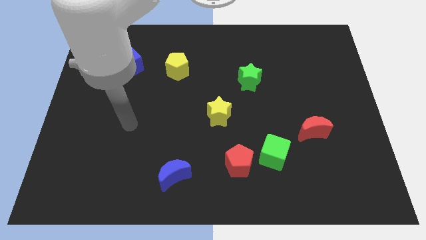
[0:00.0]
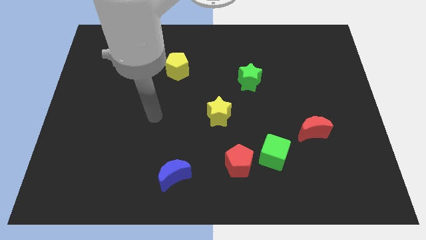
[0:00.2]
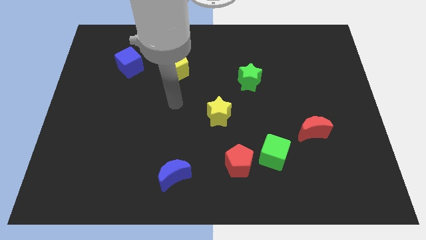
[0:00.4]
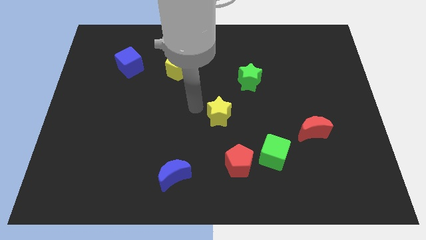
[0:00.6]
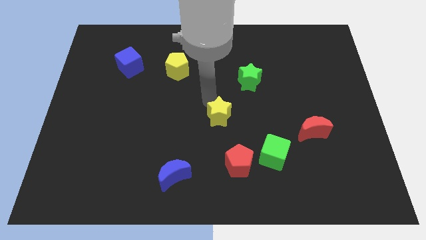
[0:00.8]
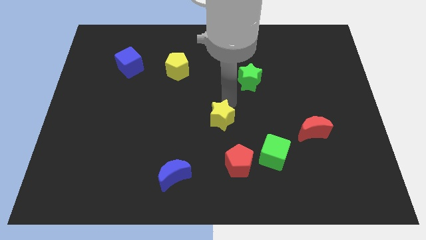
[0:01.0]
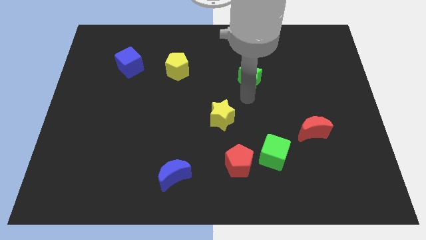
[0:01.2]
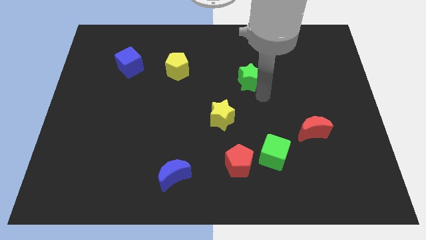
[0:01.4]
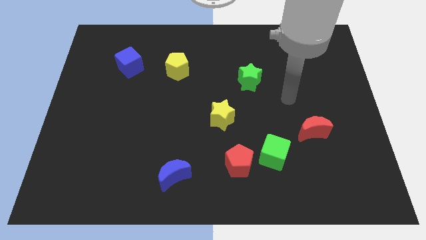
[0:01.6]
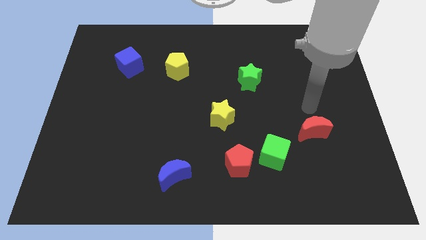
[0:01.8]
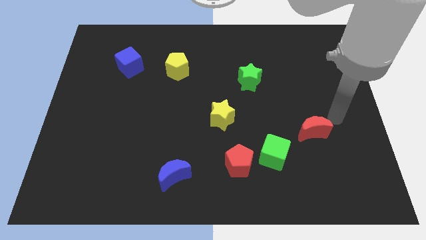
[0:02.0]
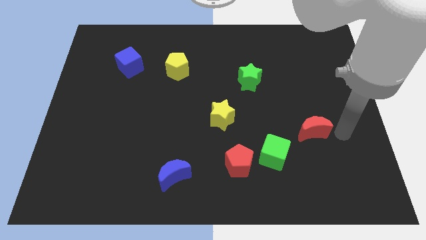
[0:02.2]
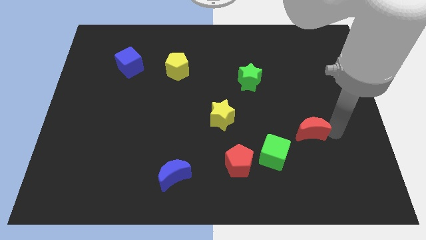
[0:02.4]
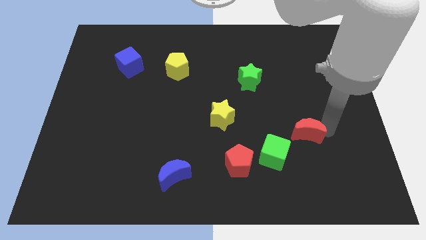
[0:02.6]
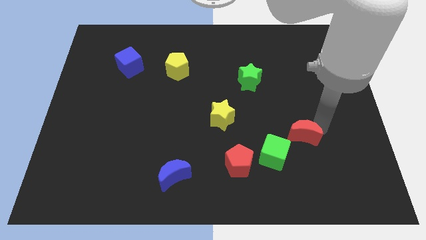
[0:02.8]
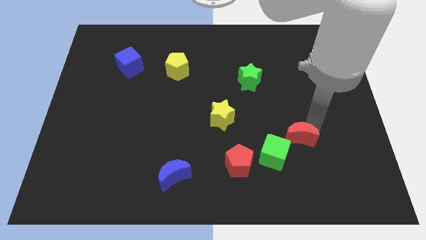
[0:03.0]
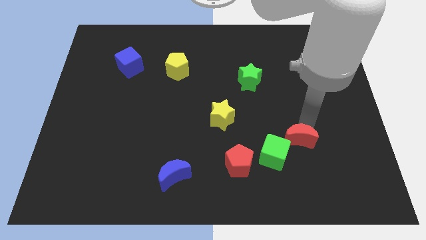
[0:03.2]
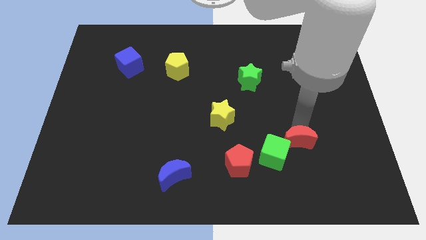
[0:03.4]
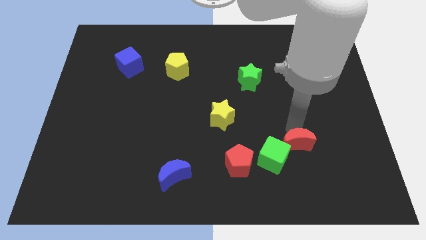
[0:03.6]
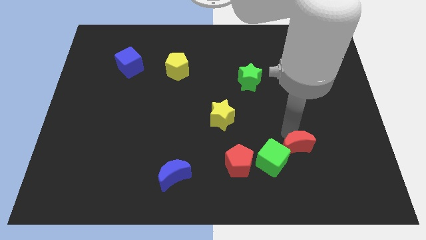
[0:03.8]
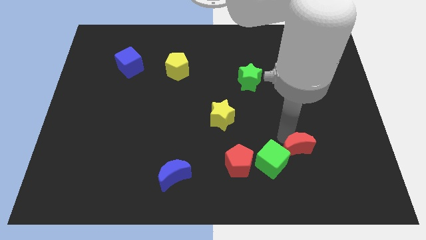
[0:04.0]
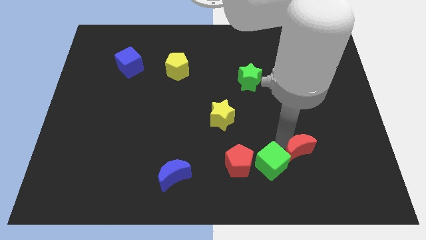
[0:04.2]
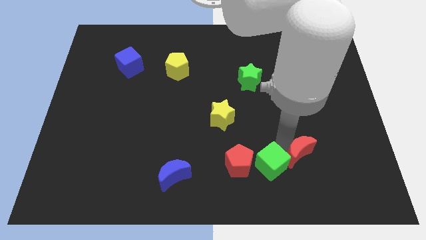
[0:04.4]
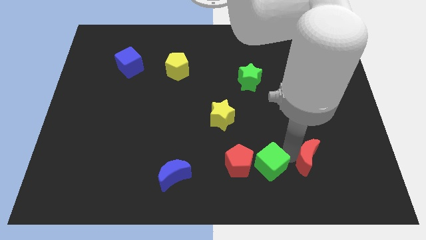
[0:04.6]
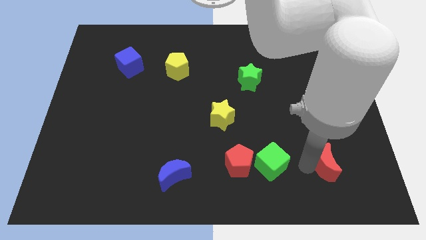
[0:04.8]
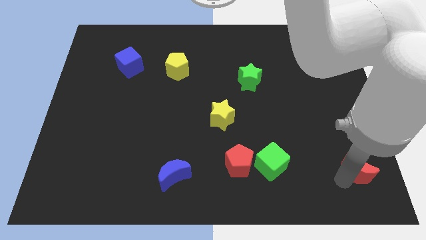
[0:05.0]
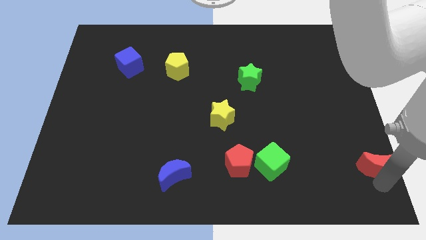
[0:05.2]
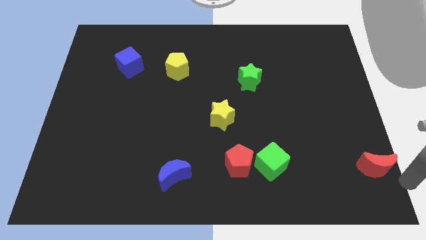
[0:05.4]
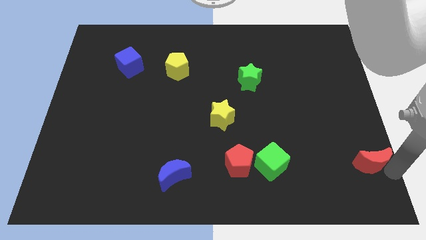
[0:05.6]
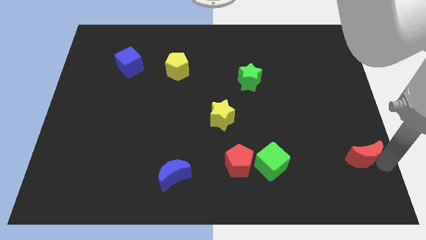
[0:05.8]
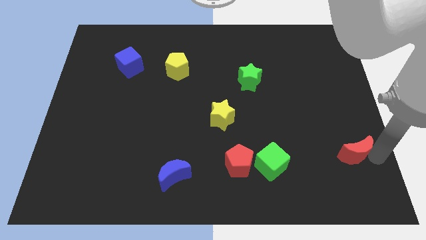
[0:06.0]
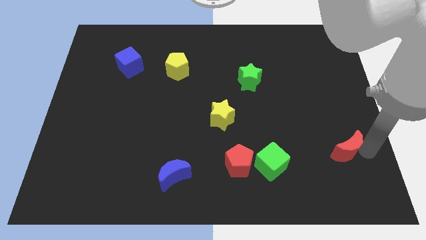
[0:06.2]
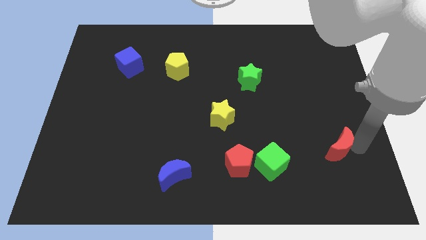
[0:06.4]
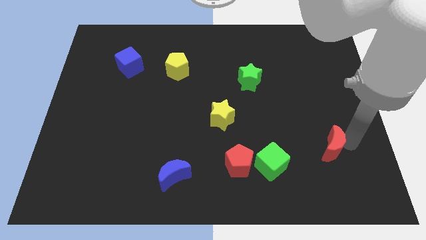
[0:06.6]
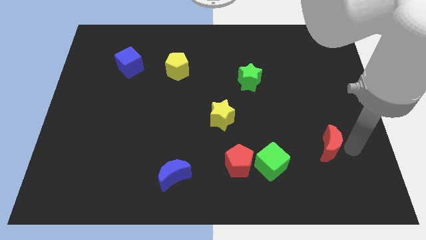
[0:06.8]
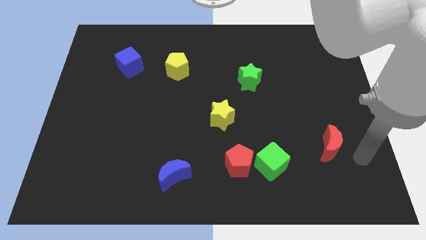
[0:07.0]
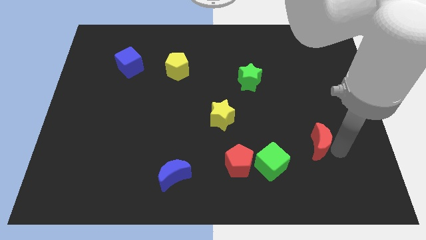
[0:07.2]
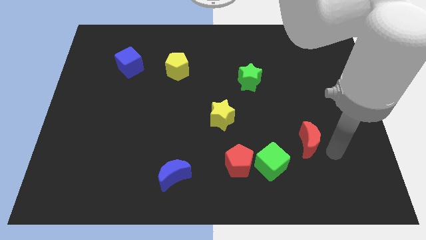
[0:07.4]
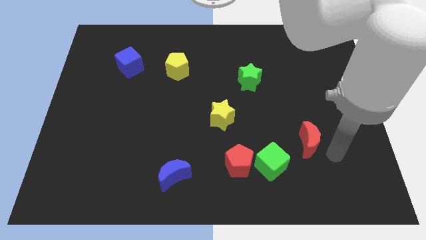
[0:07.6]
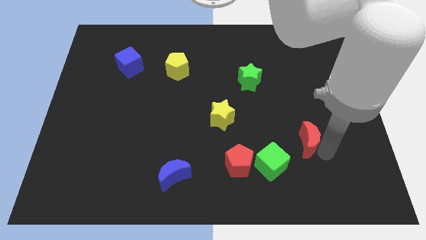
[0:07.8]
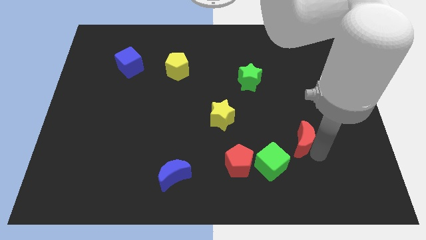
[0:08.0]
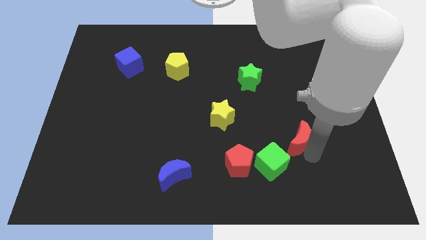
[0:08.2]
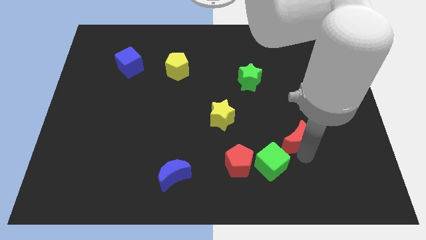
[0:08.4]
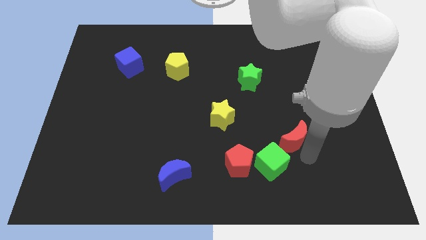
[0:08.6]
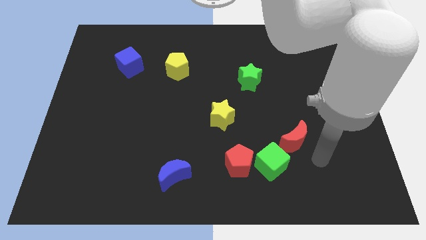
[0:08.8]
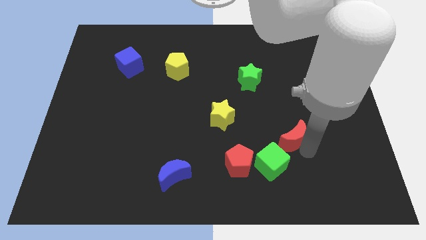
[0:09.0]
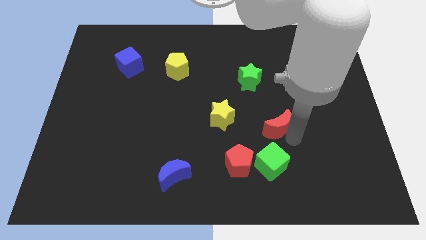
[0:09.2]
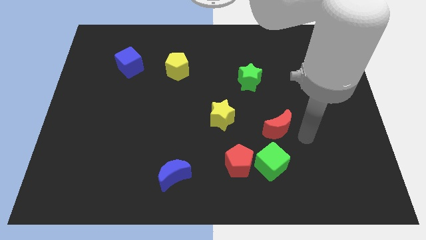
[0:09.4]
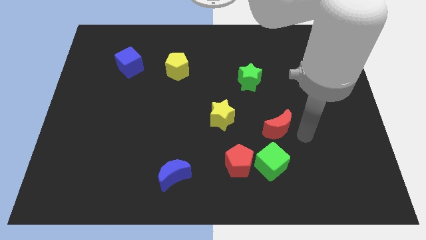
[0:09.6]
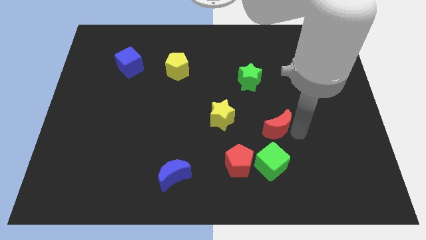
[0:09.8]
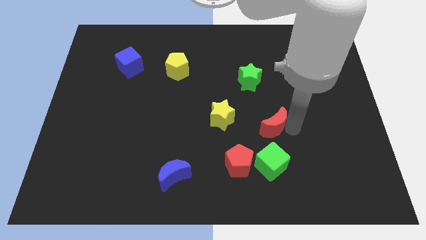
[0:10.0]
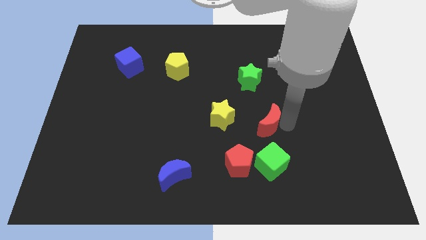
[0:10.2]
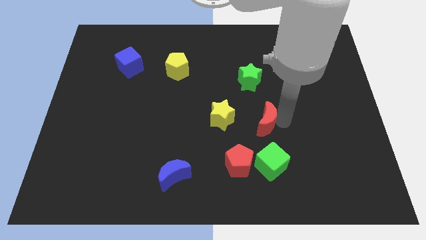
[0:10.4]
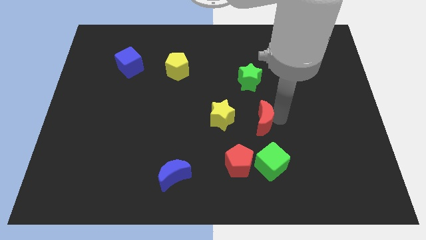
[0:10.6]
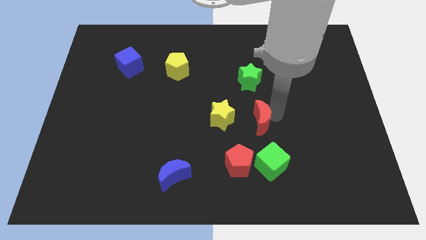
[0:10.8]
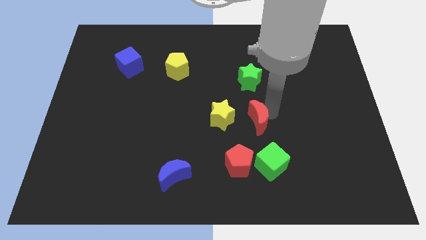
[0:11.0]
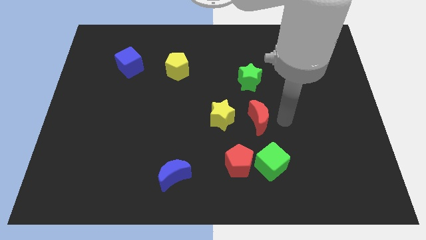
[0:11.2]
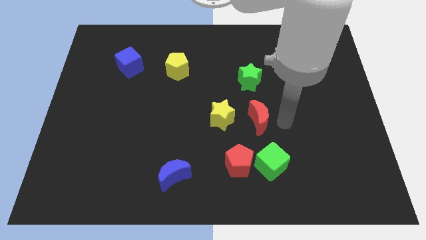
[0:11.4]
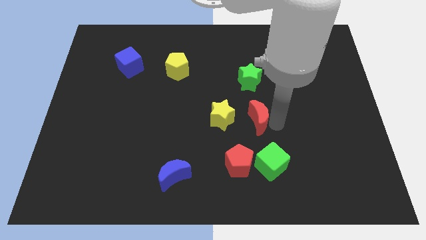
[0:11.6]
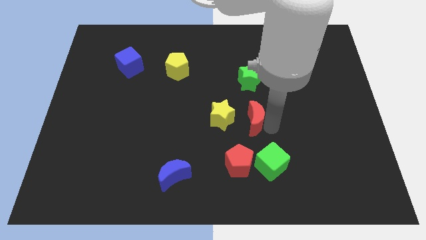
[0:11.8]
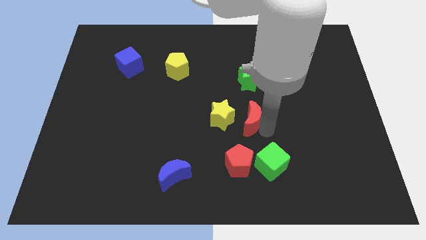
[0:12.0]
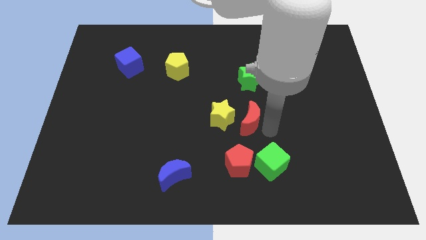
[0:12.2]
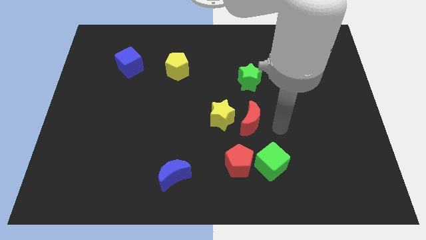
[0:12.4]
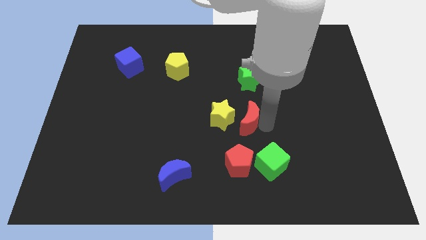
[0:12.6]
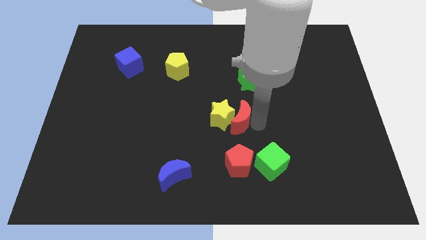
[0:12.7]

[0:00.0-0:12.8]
slide the red moon towards the yellow star

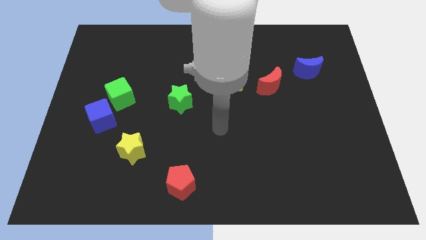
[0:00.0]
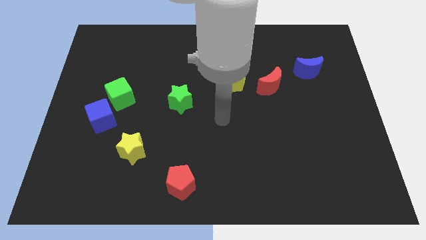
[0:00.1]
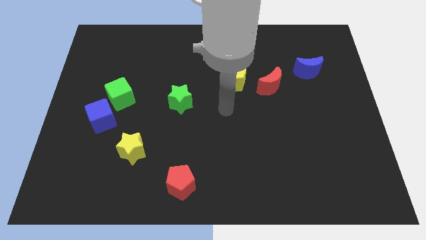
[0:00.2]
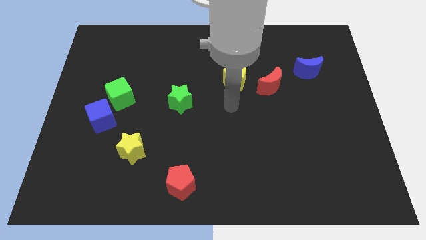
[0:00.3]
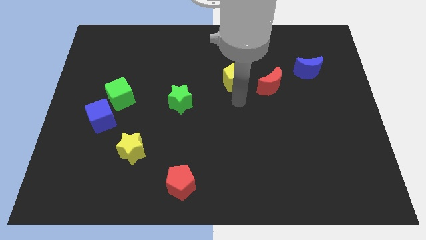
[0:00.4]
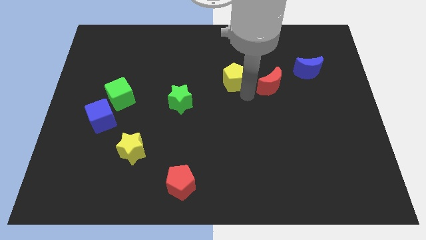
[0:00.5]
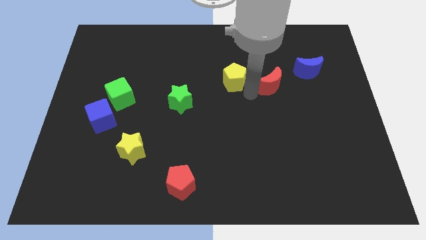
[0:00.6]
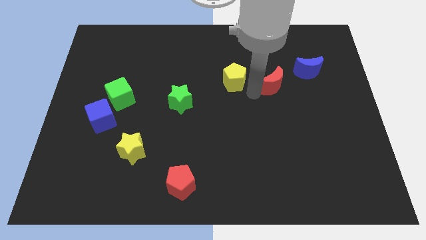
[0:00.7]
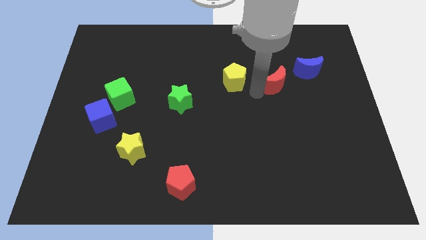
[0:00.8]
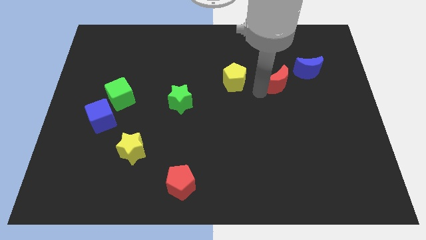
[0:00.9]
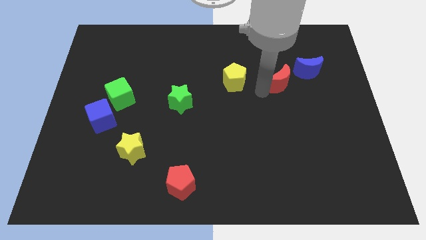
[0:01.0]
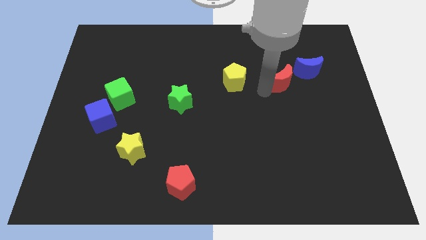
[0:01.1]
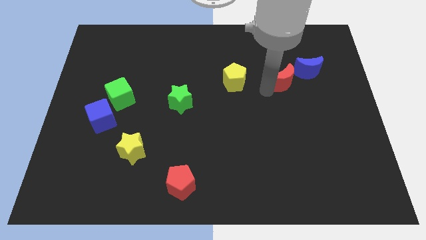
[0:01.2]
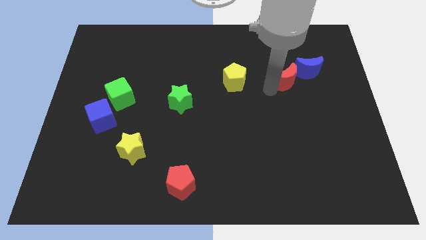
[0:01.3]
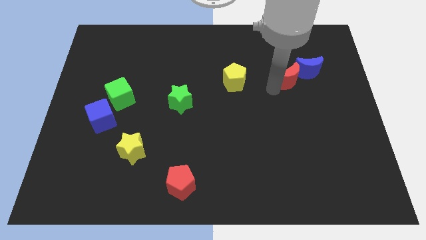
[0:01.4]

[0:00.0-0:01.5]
push the red moon towards the blue moon
